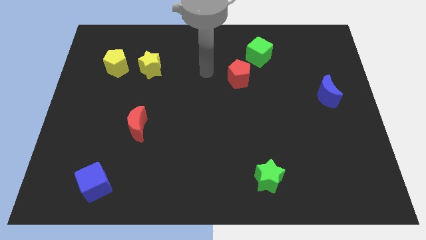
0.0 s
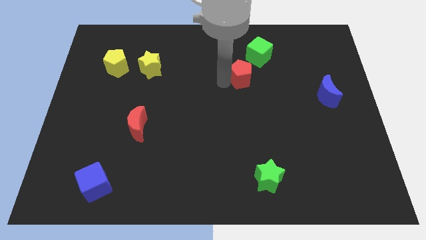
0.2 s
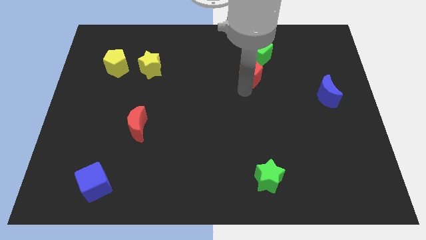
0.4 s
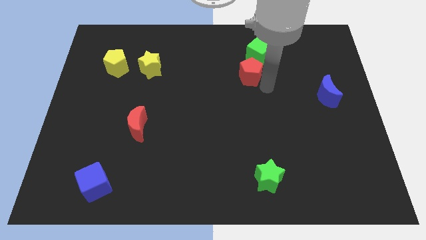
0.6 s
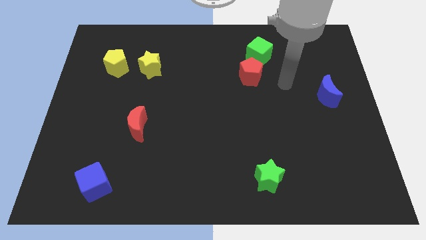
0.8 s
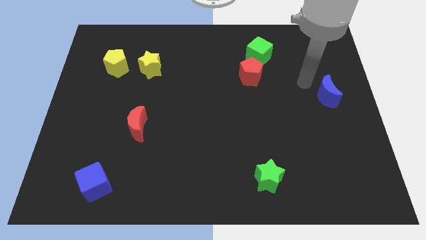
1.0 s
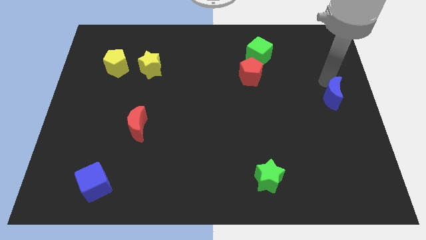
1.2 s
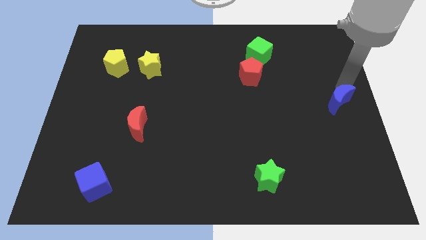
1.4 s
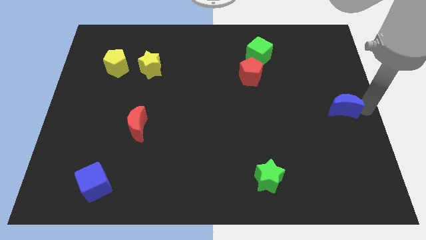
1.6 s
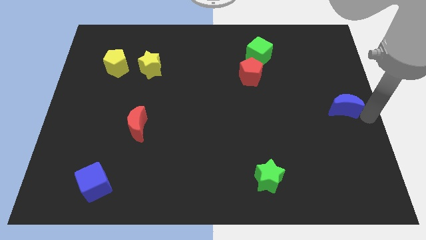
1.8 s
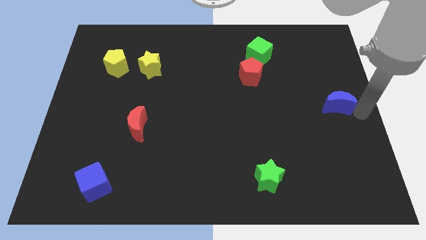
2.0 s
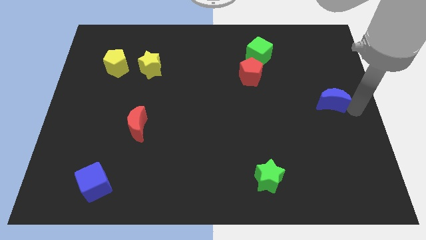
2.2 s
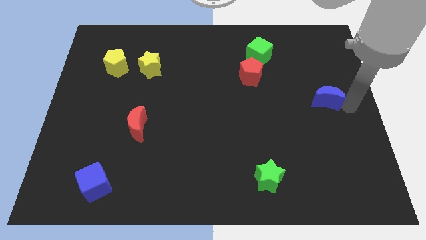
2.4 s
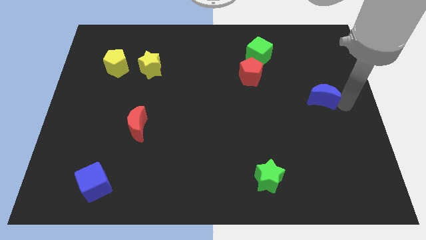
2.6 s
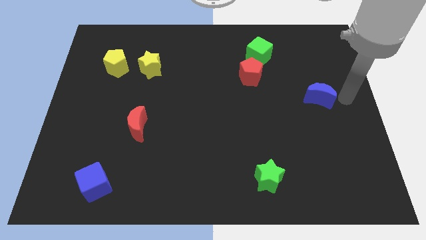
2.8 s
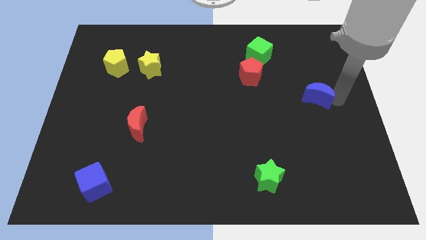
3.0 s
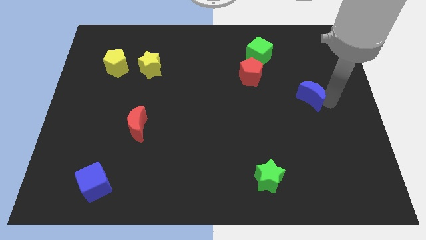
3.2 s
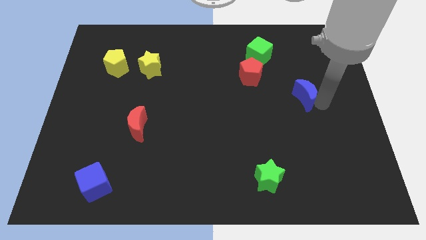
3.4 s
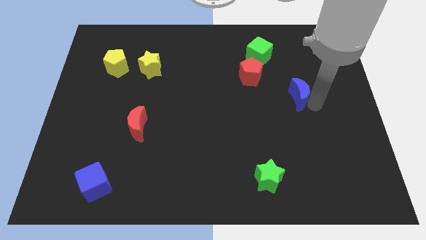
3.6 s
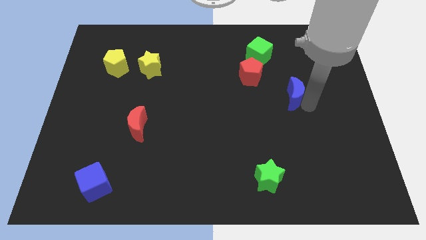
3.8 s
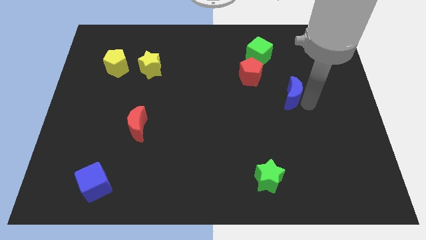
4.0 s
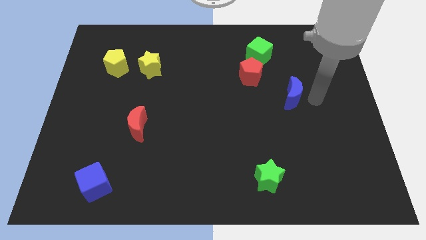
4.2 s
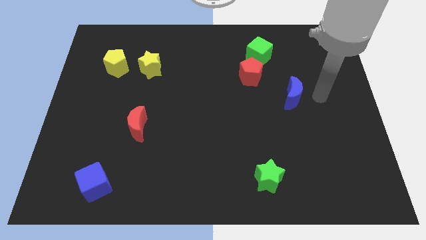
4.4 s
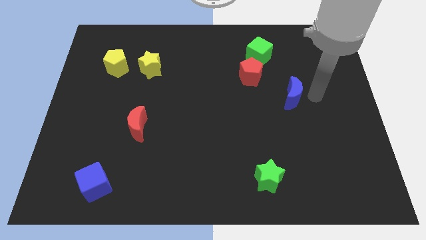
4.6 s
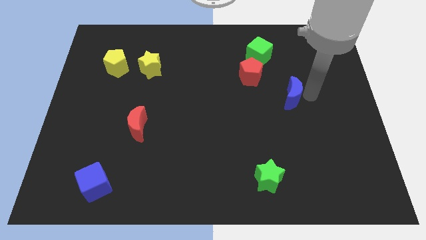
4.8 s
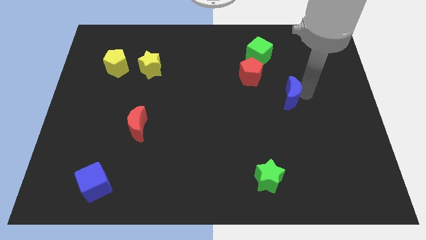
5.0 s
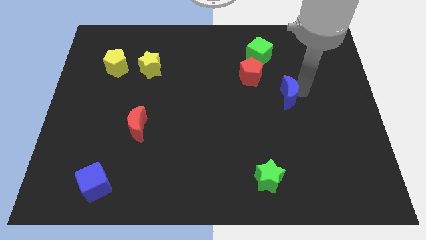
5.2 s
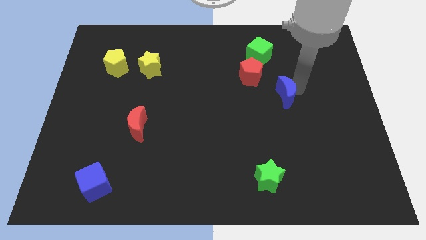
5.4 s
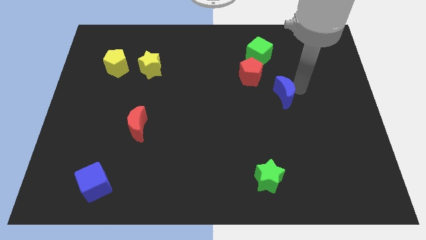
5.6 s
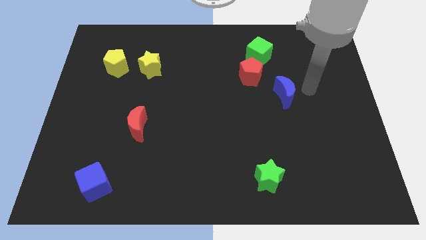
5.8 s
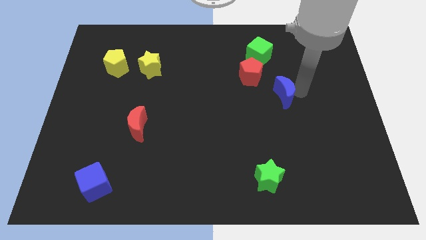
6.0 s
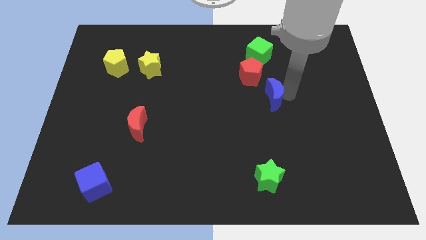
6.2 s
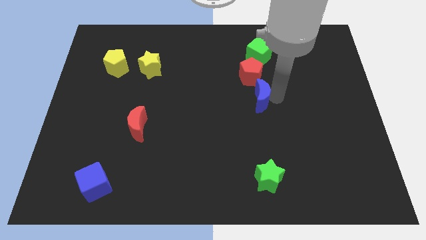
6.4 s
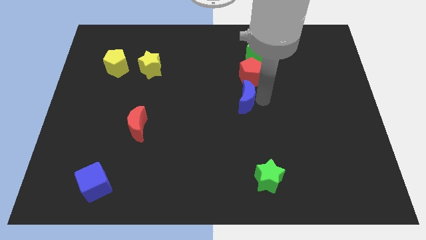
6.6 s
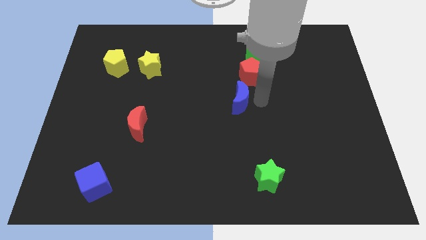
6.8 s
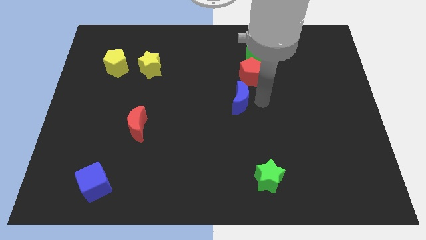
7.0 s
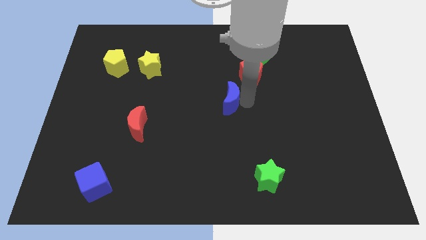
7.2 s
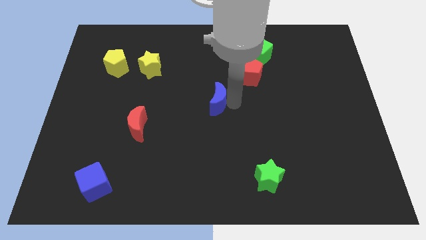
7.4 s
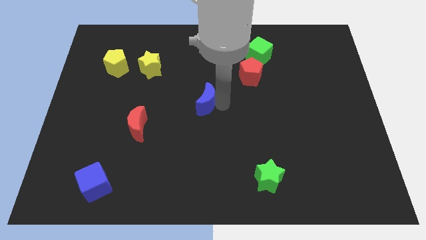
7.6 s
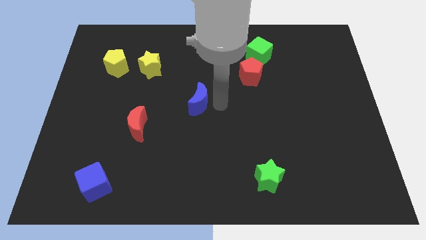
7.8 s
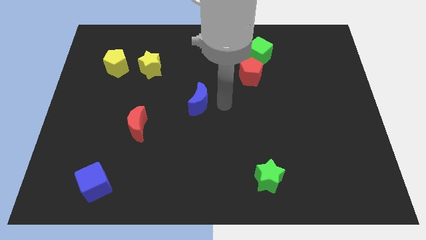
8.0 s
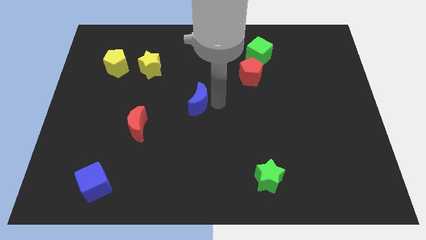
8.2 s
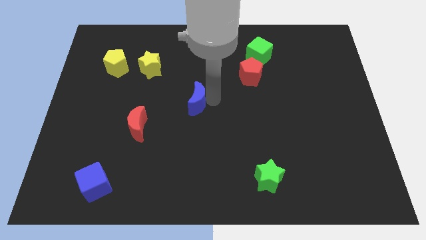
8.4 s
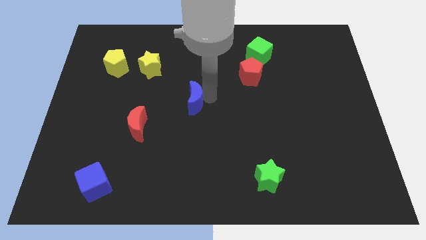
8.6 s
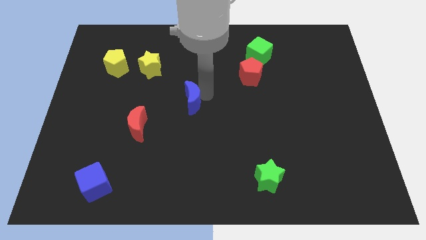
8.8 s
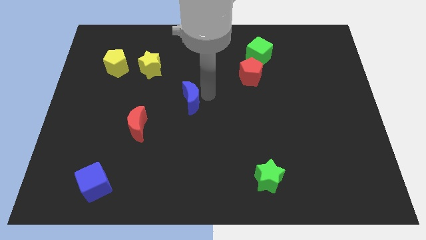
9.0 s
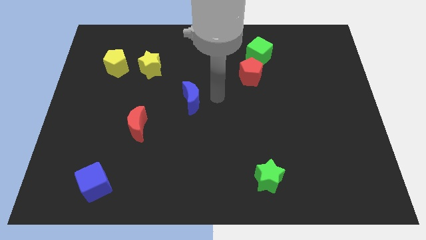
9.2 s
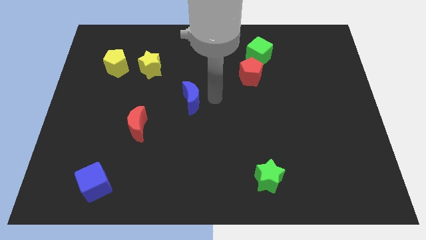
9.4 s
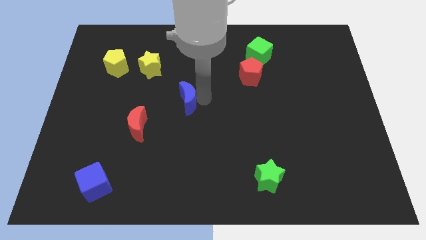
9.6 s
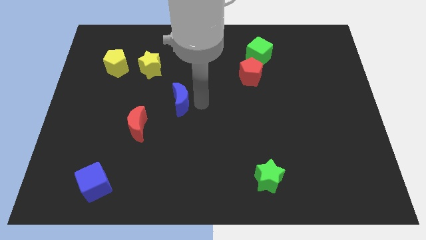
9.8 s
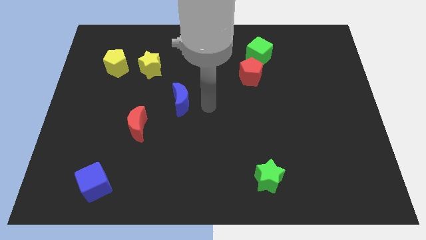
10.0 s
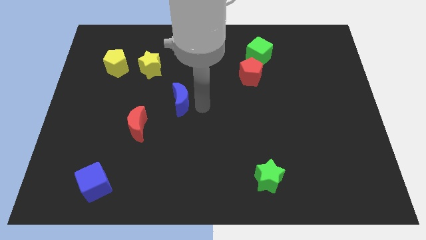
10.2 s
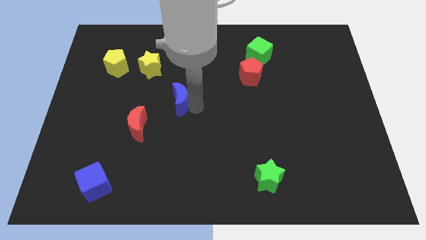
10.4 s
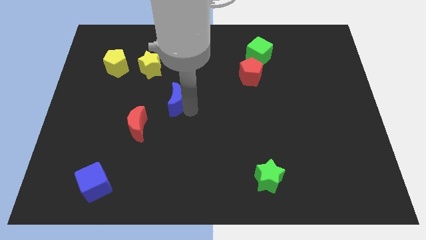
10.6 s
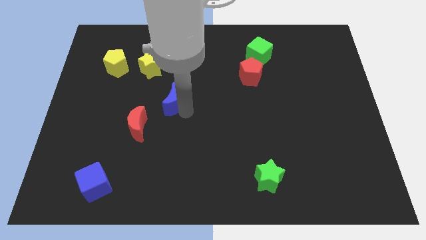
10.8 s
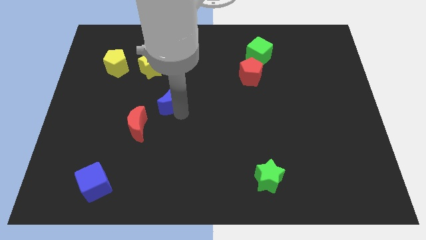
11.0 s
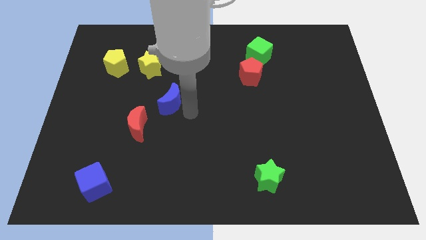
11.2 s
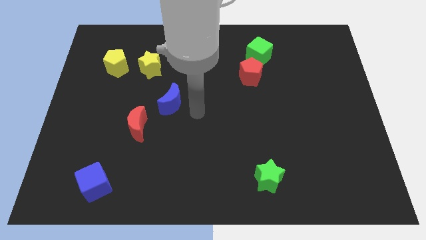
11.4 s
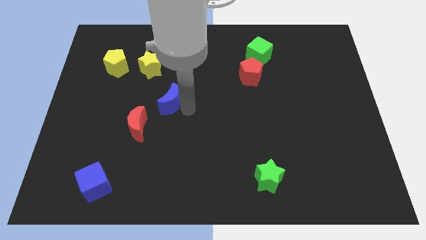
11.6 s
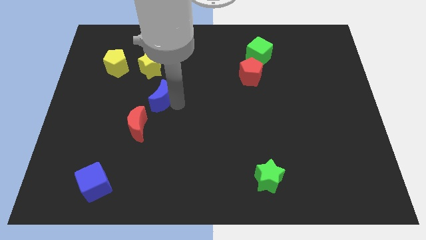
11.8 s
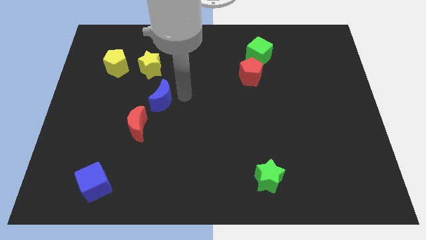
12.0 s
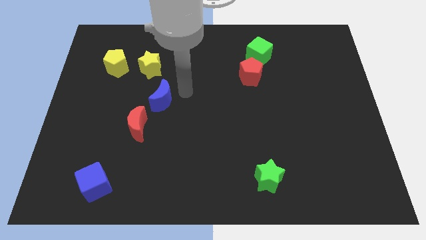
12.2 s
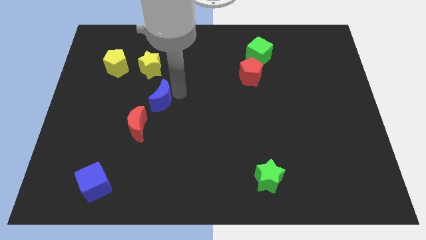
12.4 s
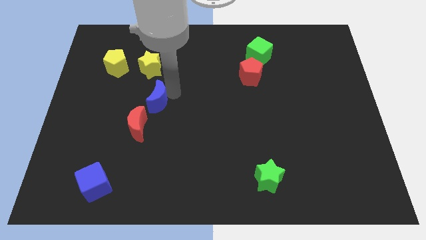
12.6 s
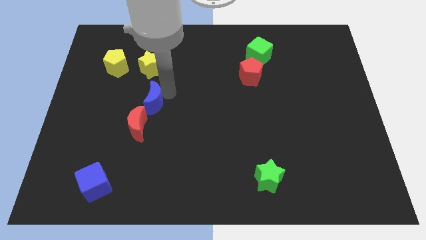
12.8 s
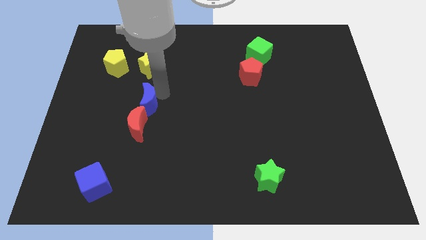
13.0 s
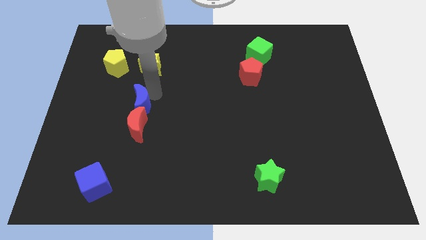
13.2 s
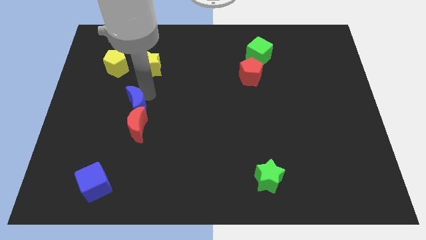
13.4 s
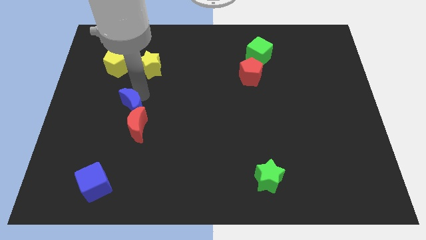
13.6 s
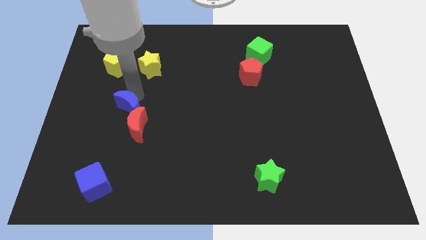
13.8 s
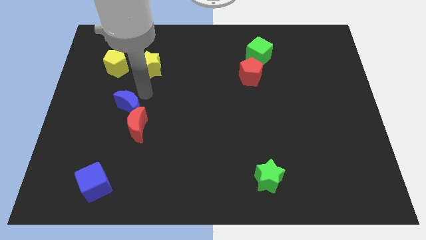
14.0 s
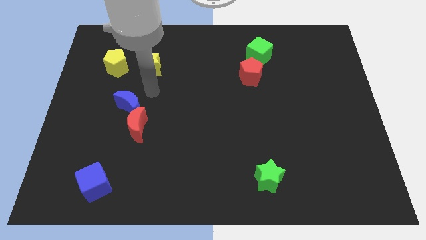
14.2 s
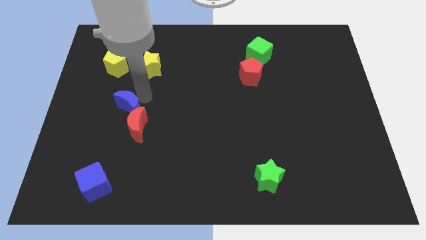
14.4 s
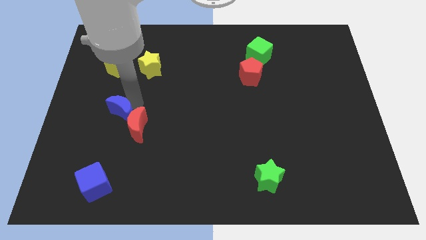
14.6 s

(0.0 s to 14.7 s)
put the blue moon left of the red moon

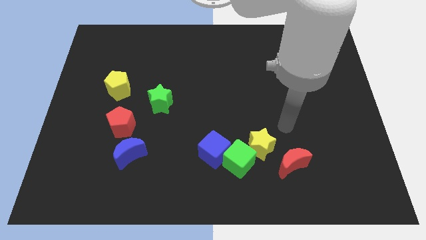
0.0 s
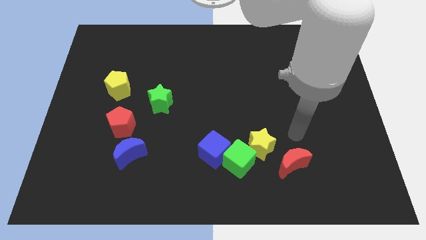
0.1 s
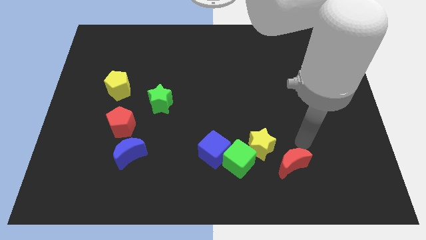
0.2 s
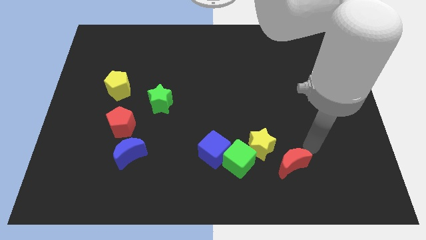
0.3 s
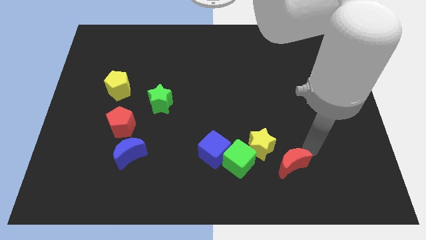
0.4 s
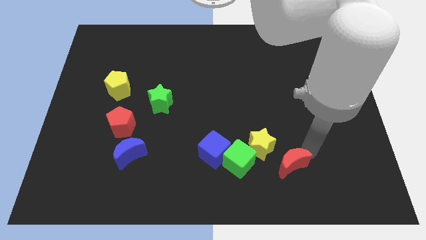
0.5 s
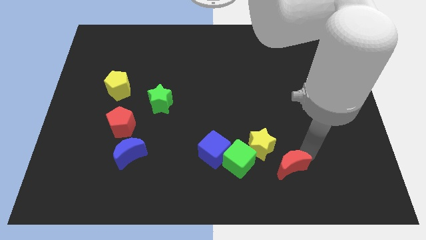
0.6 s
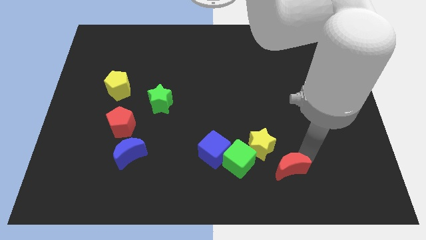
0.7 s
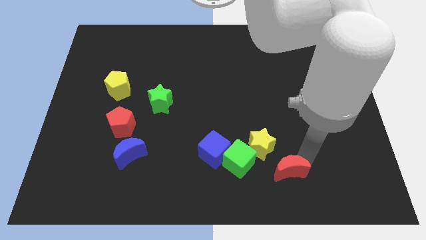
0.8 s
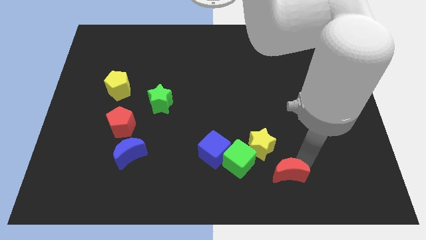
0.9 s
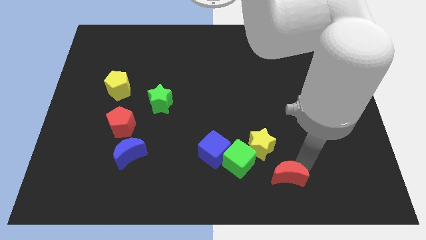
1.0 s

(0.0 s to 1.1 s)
slide the red moon diagonally down and to the right of the green cube
